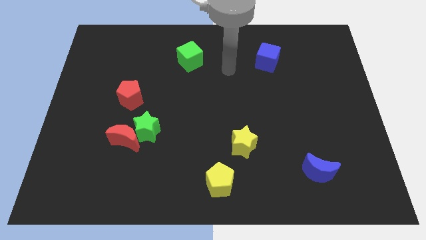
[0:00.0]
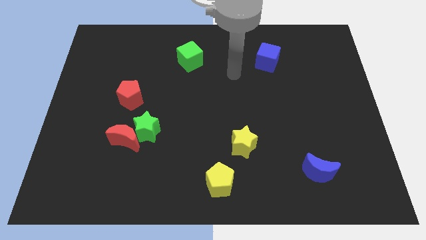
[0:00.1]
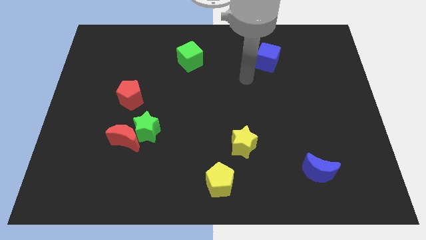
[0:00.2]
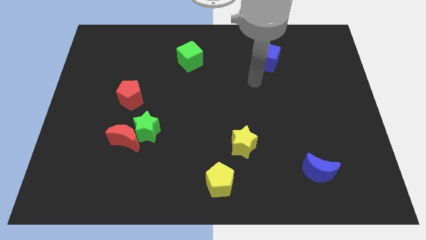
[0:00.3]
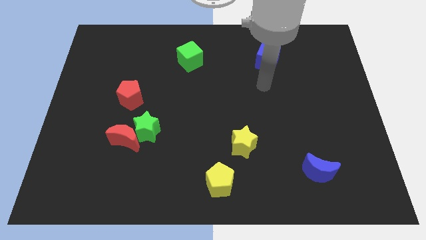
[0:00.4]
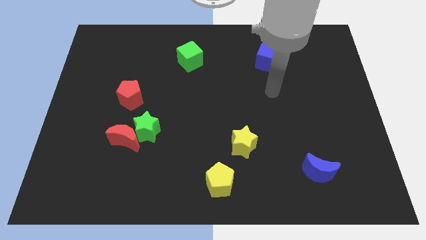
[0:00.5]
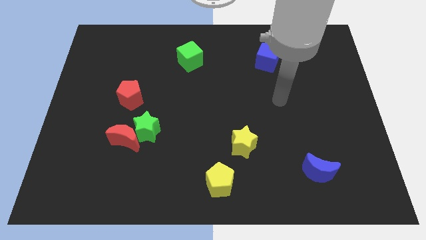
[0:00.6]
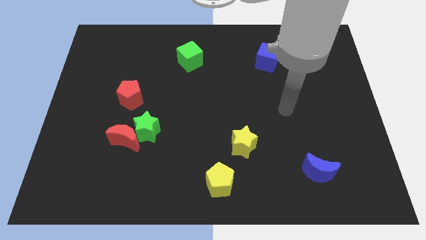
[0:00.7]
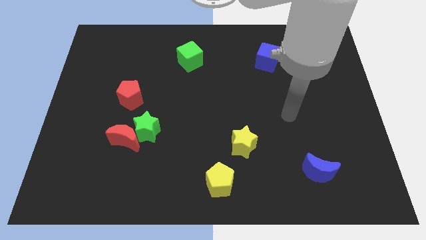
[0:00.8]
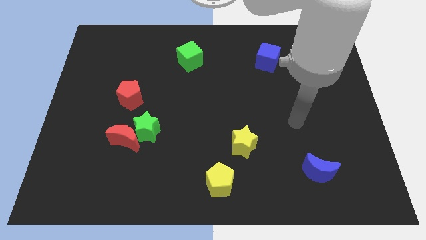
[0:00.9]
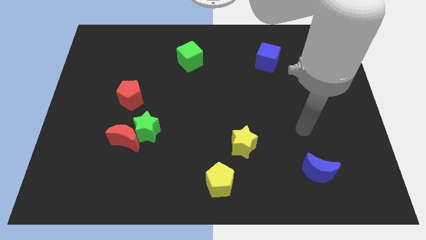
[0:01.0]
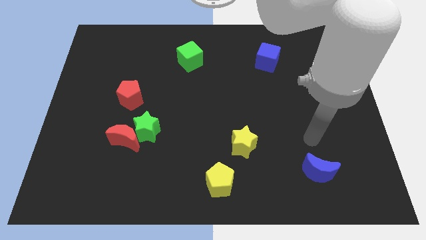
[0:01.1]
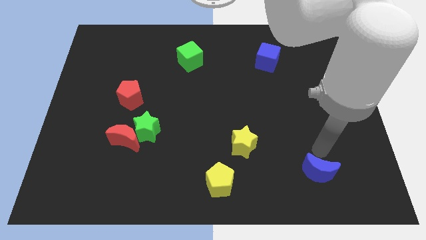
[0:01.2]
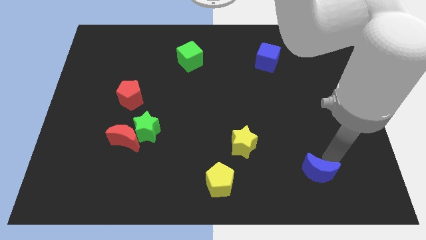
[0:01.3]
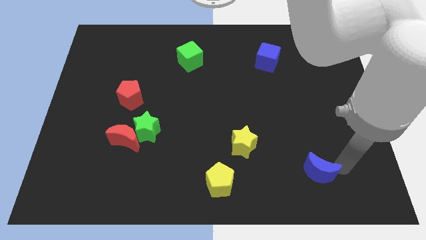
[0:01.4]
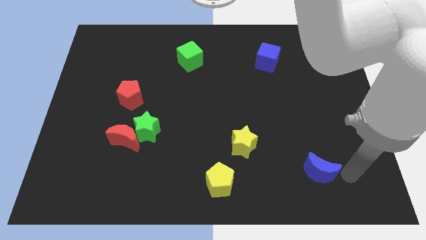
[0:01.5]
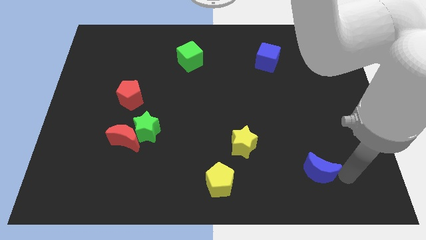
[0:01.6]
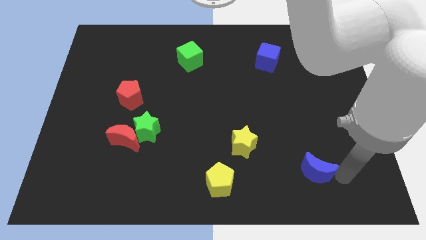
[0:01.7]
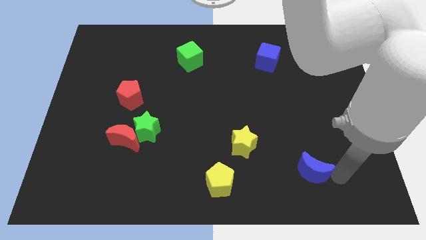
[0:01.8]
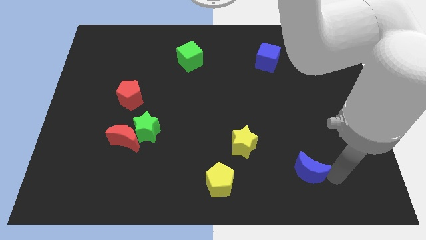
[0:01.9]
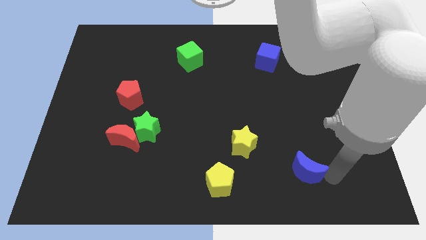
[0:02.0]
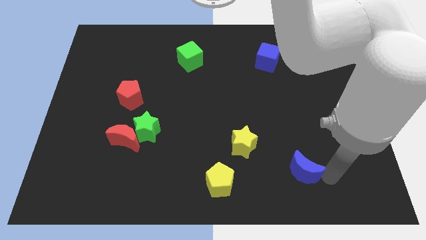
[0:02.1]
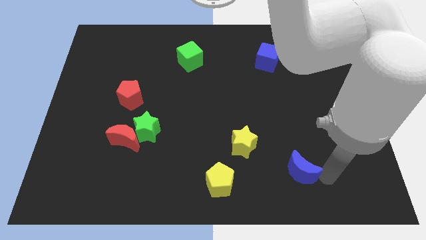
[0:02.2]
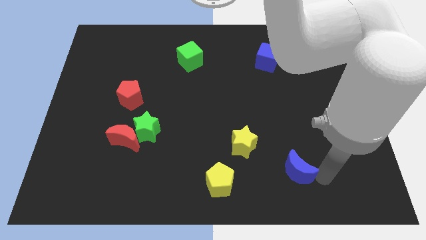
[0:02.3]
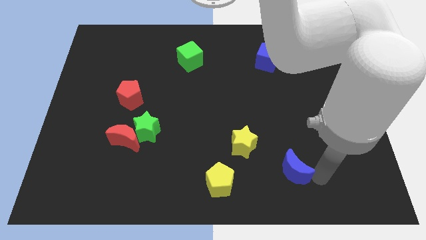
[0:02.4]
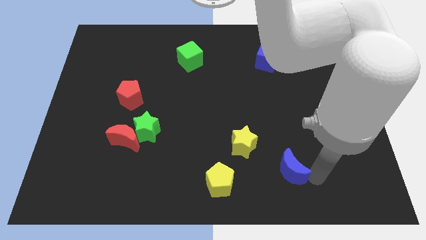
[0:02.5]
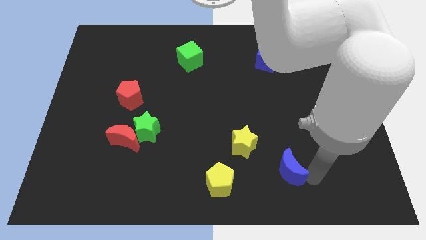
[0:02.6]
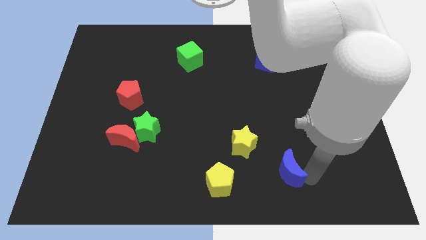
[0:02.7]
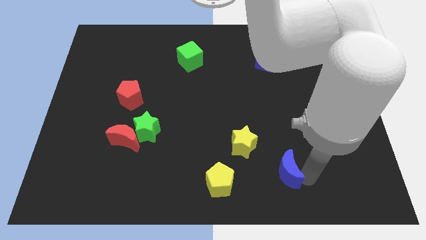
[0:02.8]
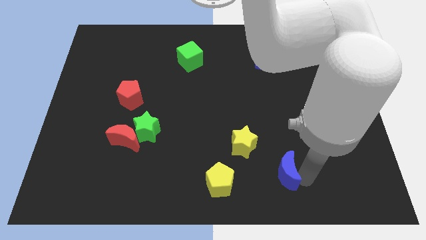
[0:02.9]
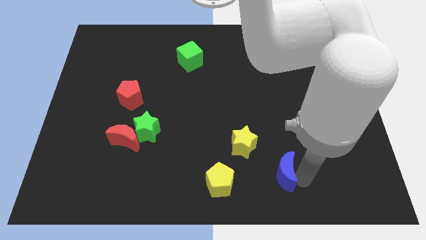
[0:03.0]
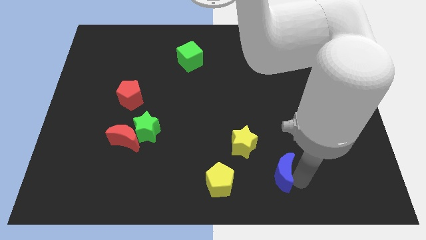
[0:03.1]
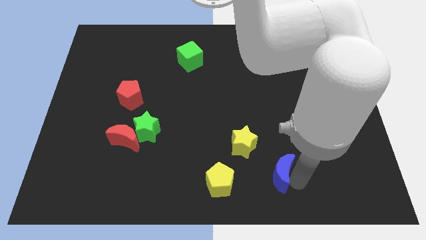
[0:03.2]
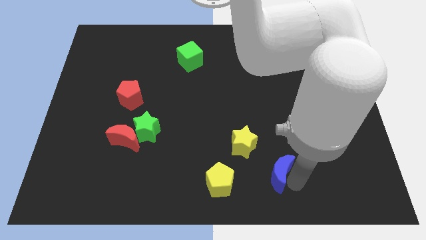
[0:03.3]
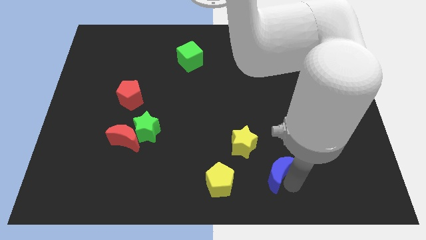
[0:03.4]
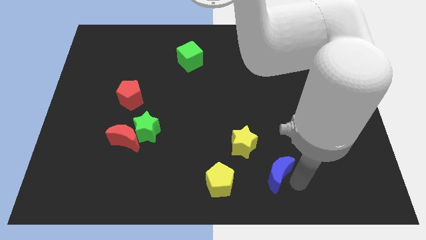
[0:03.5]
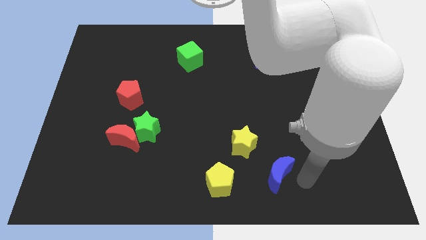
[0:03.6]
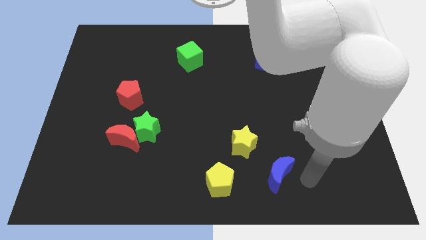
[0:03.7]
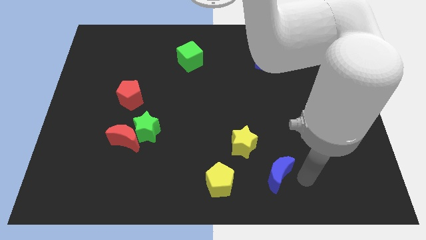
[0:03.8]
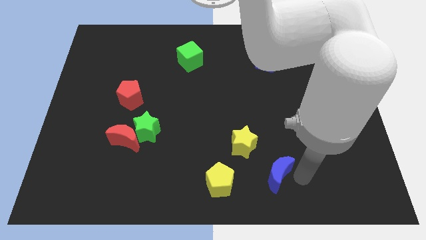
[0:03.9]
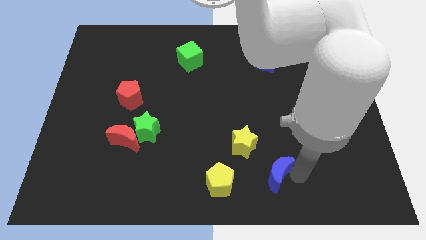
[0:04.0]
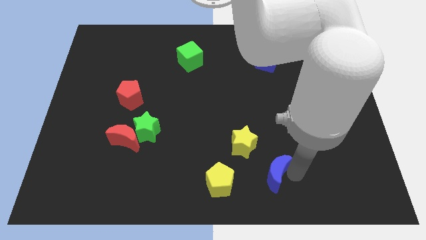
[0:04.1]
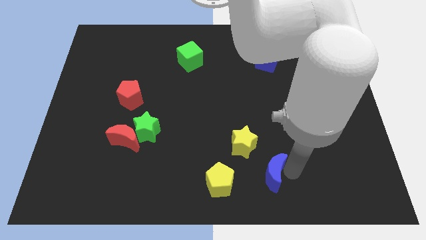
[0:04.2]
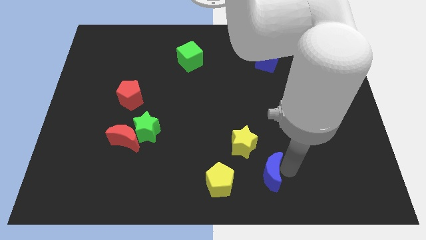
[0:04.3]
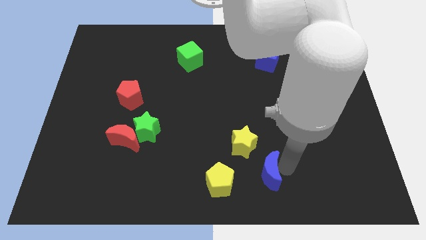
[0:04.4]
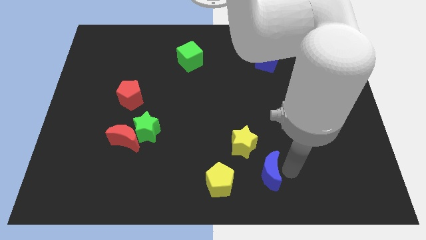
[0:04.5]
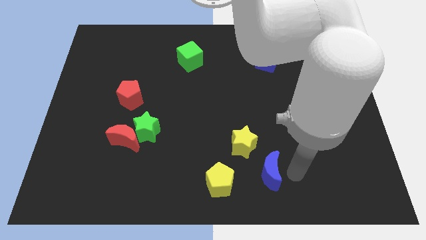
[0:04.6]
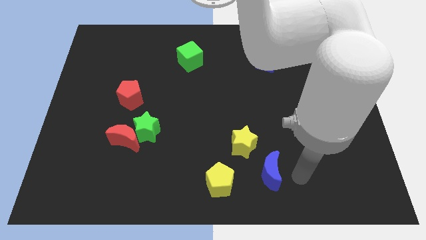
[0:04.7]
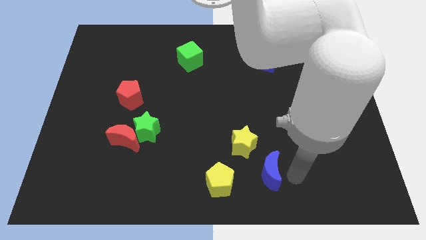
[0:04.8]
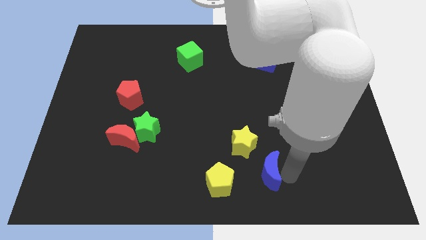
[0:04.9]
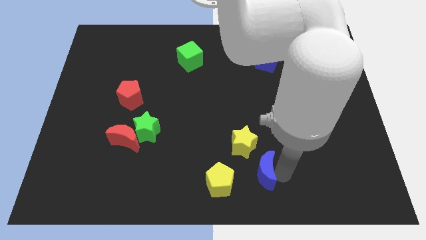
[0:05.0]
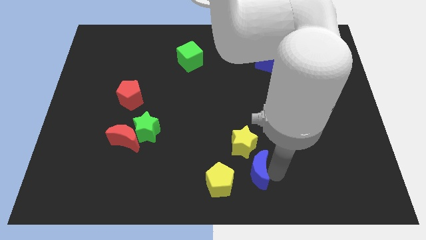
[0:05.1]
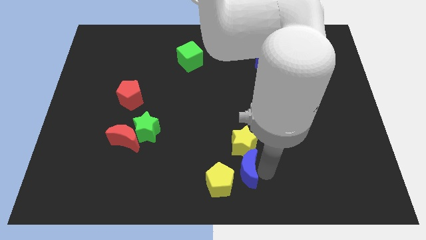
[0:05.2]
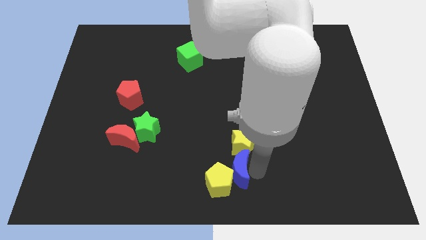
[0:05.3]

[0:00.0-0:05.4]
slide the blue moon diagonally down and to the left of the yellow star

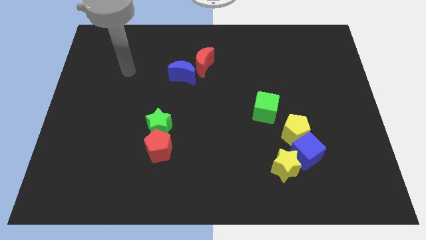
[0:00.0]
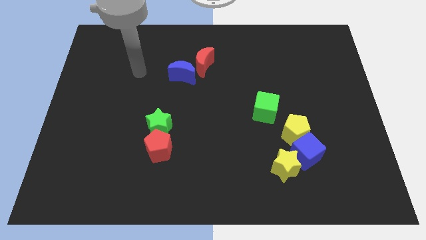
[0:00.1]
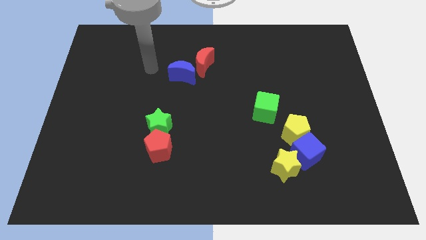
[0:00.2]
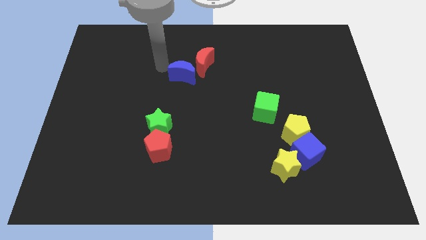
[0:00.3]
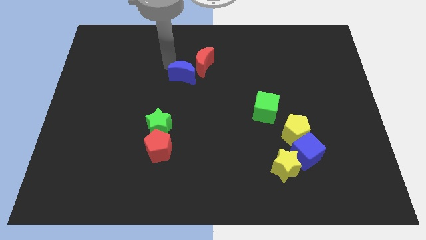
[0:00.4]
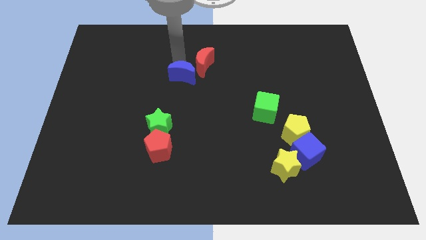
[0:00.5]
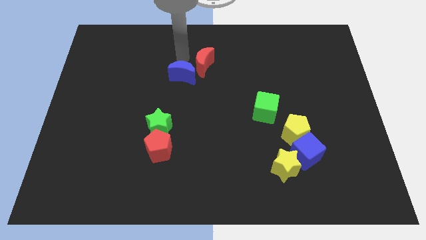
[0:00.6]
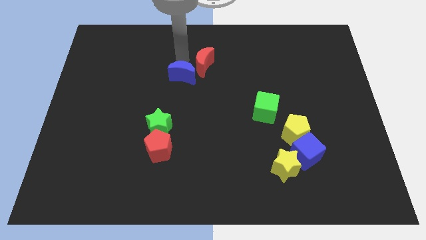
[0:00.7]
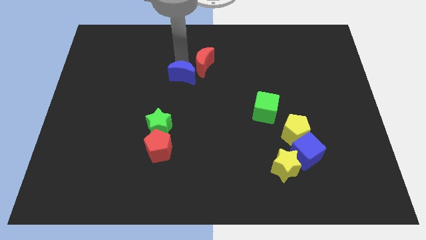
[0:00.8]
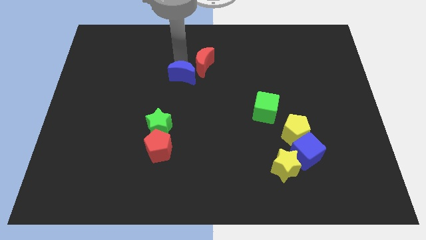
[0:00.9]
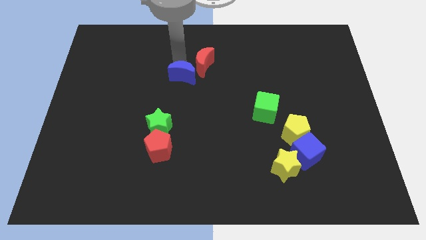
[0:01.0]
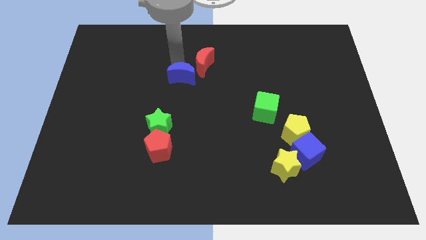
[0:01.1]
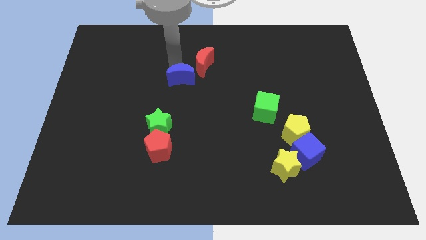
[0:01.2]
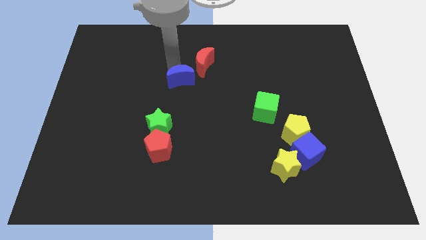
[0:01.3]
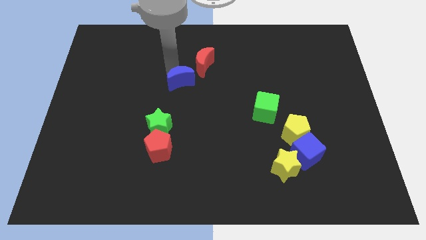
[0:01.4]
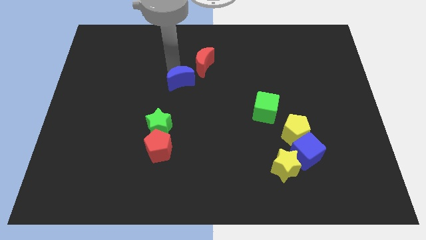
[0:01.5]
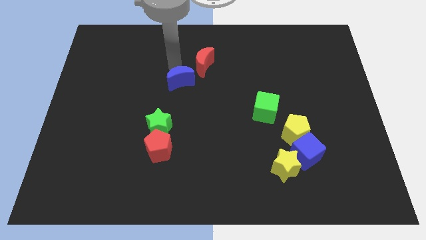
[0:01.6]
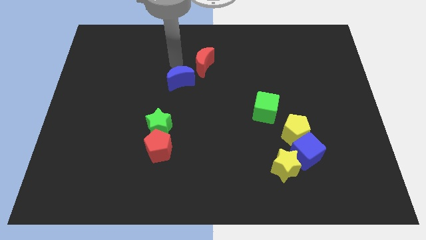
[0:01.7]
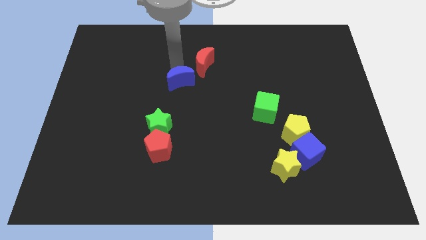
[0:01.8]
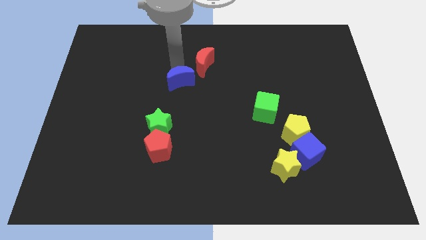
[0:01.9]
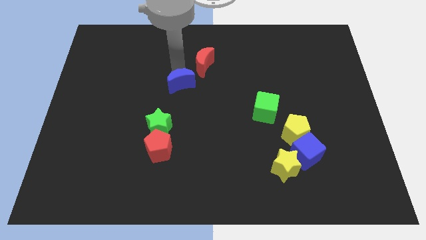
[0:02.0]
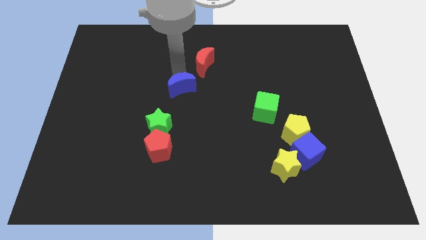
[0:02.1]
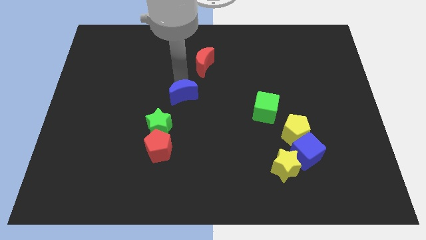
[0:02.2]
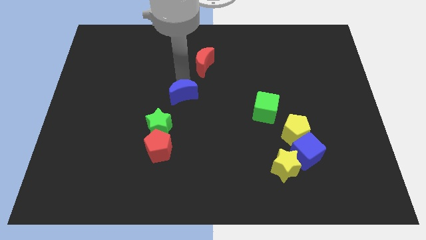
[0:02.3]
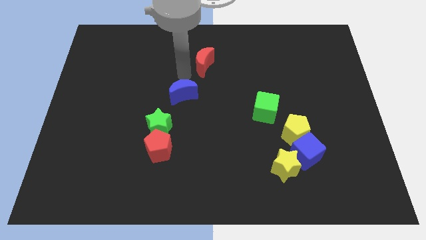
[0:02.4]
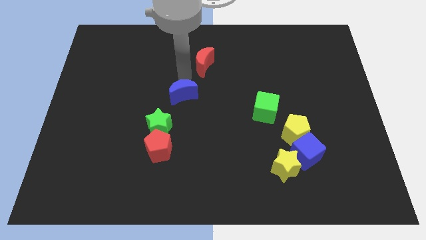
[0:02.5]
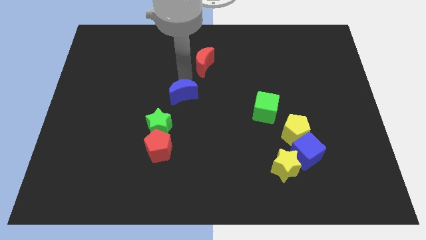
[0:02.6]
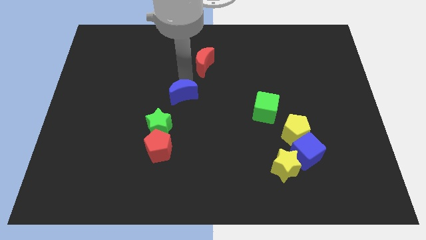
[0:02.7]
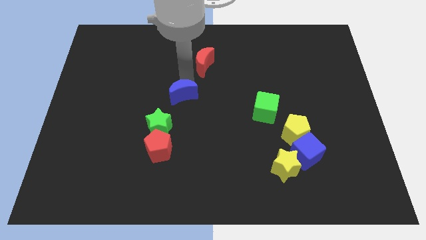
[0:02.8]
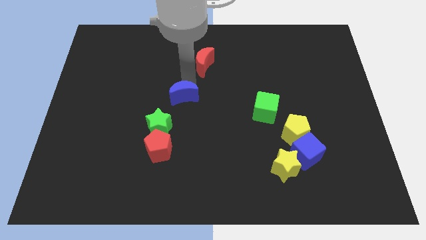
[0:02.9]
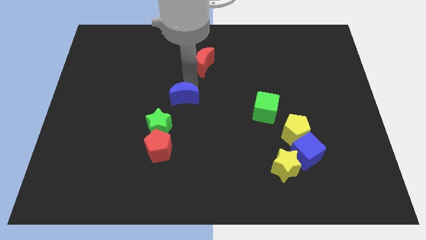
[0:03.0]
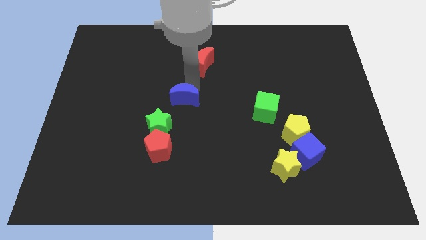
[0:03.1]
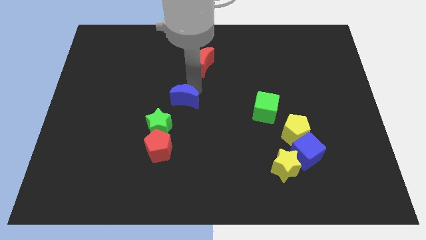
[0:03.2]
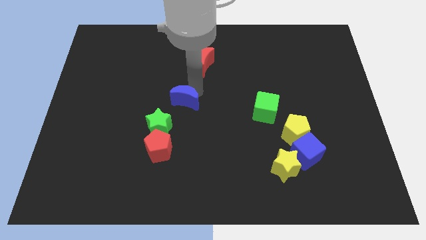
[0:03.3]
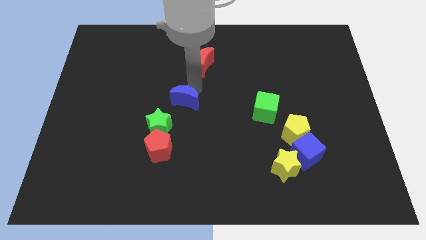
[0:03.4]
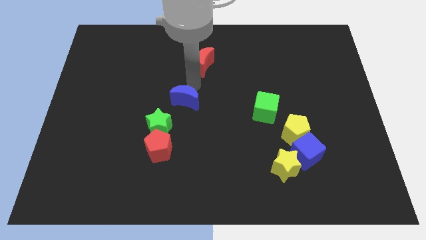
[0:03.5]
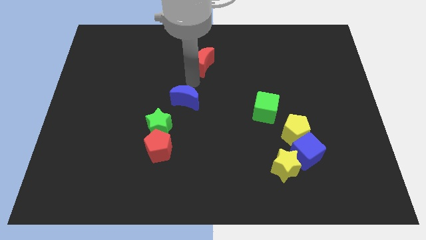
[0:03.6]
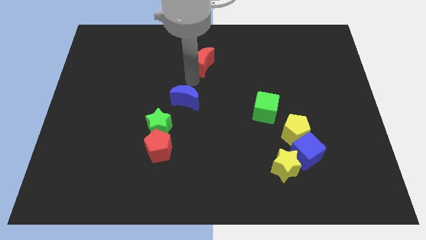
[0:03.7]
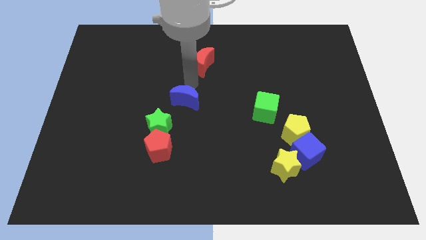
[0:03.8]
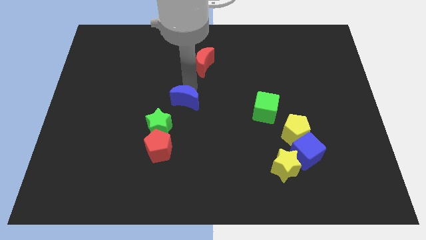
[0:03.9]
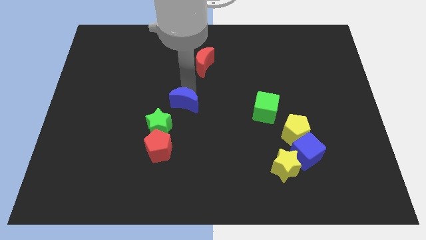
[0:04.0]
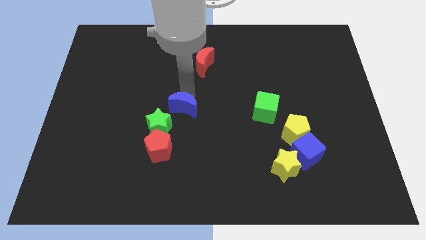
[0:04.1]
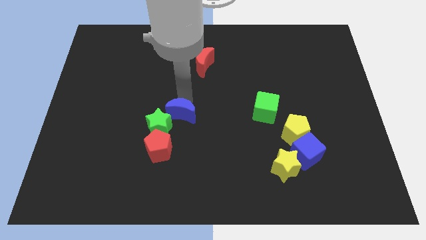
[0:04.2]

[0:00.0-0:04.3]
push the blue moon diagonally up and to the right of the red pentagon
